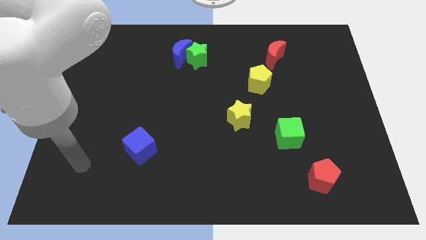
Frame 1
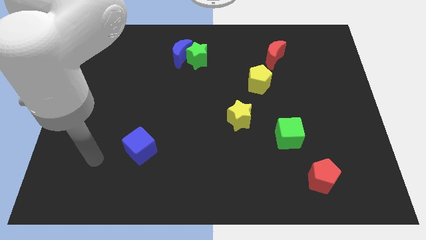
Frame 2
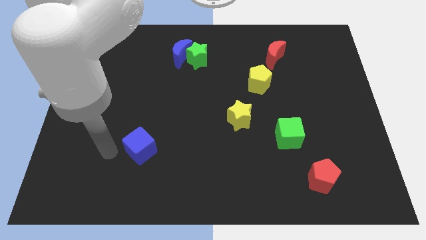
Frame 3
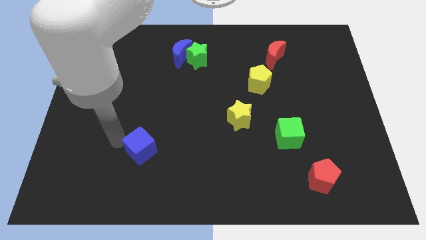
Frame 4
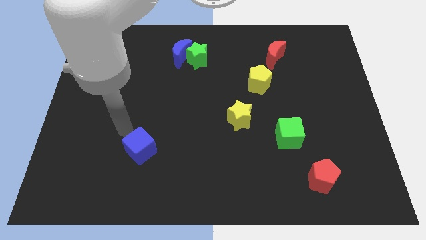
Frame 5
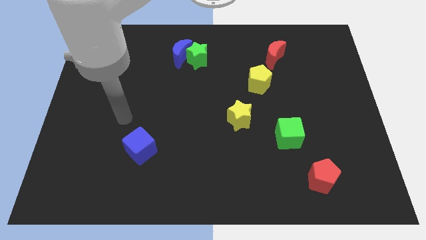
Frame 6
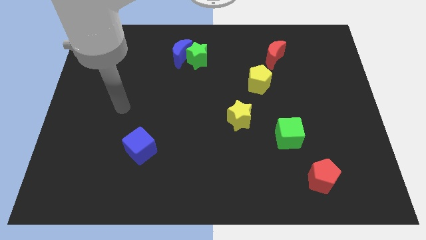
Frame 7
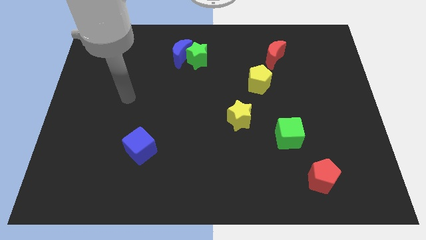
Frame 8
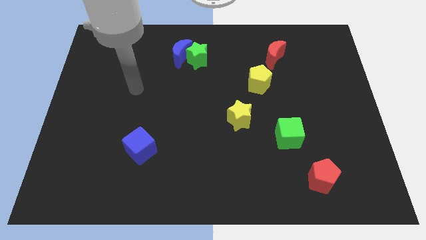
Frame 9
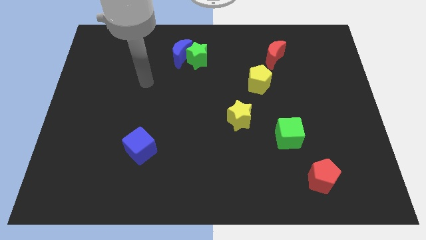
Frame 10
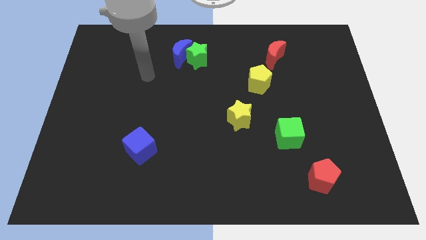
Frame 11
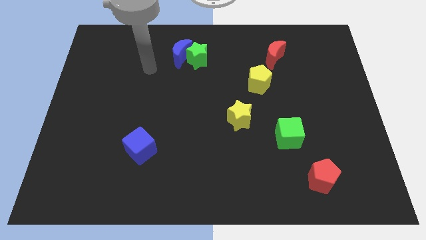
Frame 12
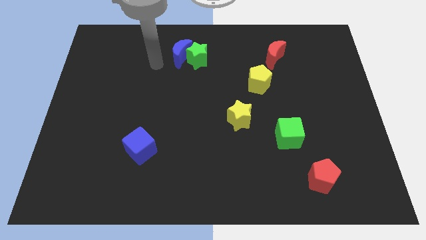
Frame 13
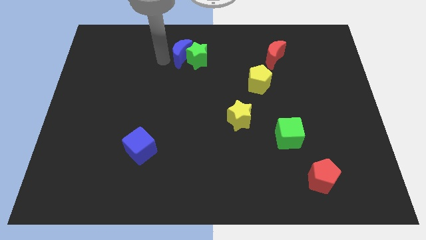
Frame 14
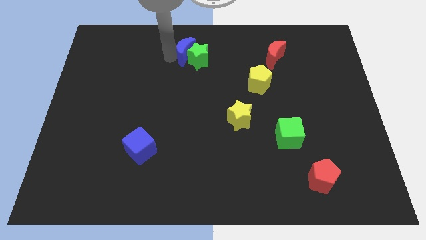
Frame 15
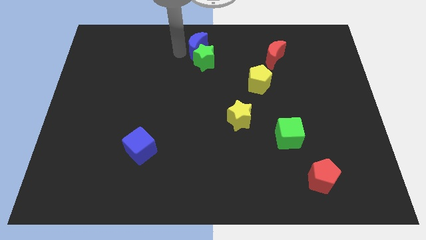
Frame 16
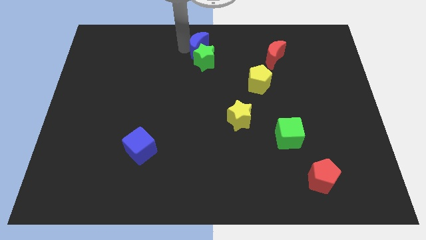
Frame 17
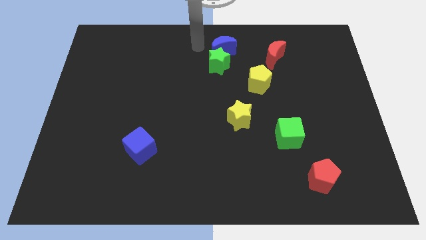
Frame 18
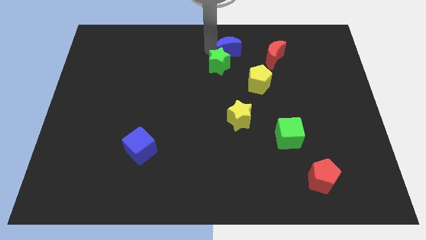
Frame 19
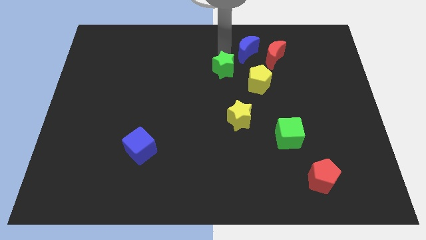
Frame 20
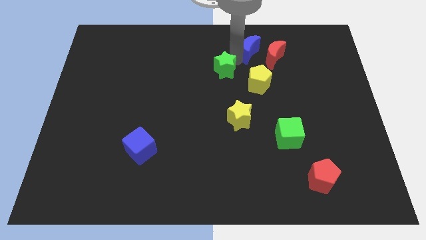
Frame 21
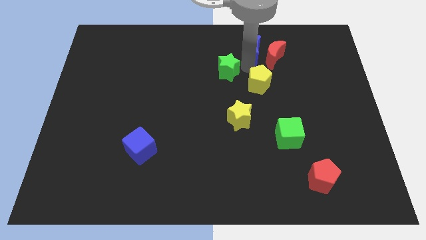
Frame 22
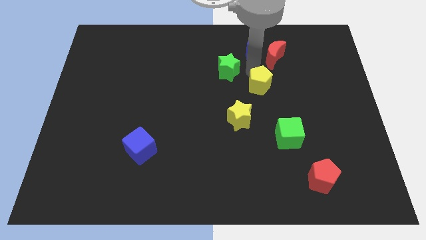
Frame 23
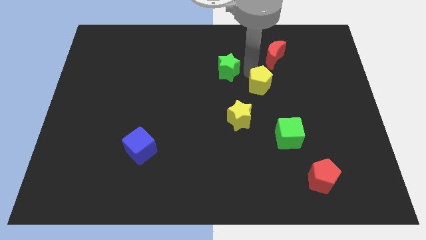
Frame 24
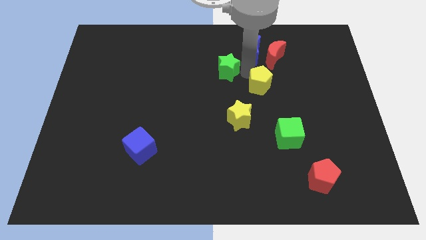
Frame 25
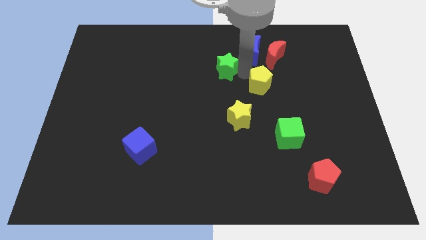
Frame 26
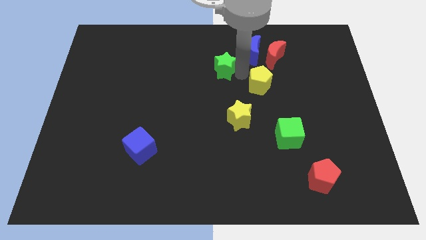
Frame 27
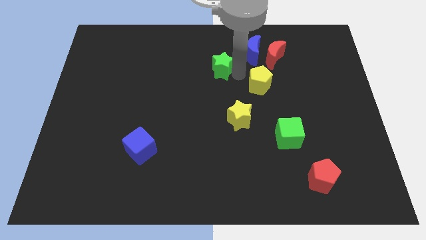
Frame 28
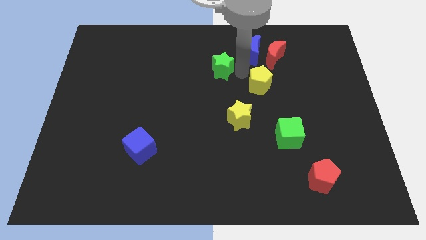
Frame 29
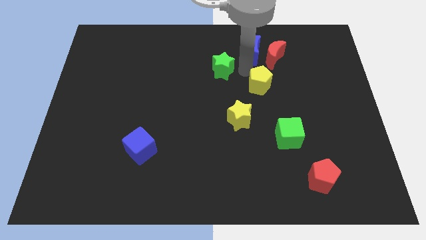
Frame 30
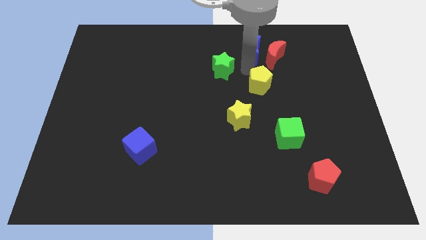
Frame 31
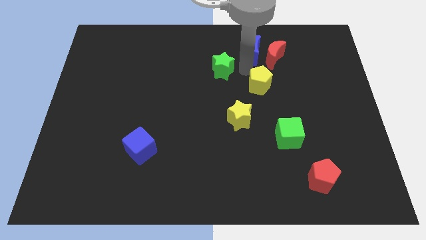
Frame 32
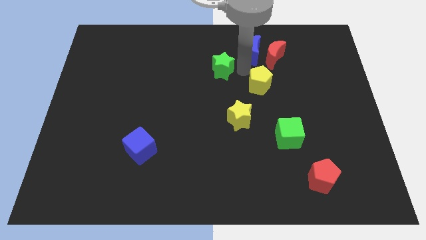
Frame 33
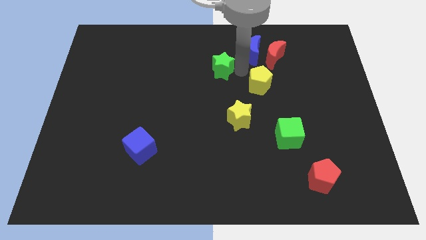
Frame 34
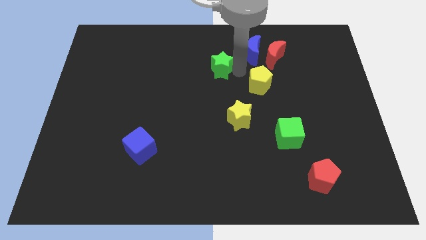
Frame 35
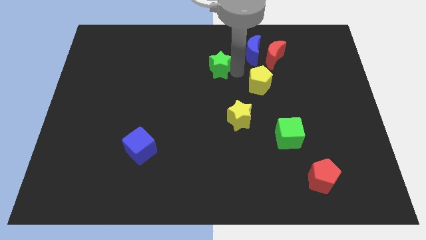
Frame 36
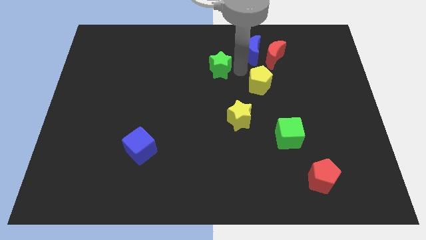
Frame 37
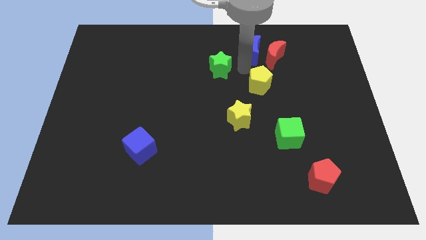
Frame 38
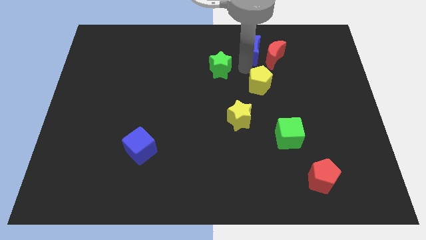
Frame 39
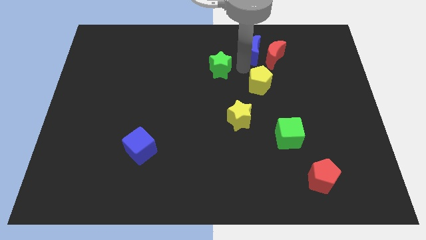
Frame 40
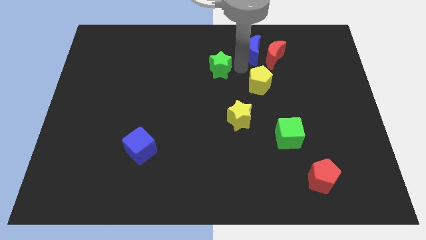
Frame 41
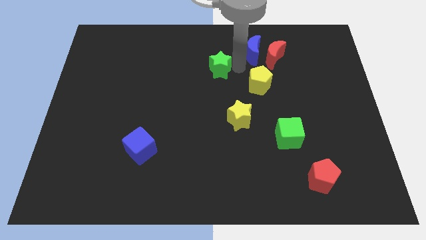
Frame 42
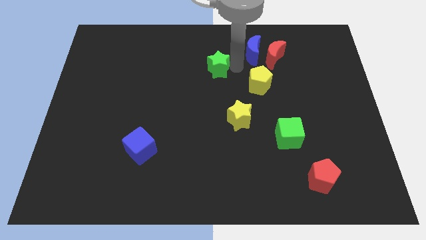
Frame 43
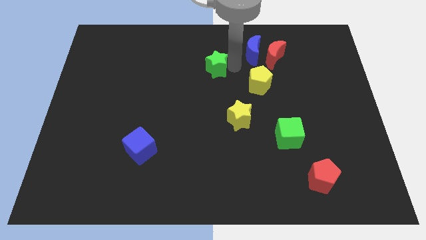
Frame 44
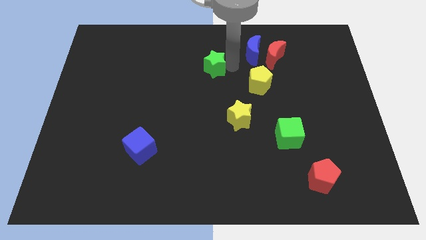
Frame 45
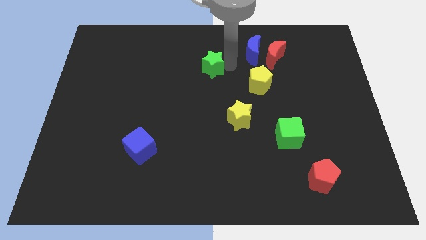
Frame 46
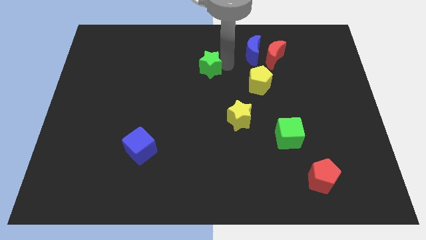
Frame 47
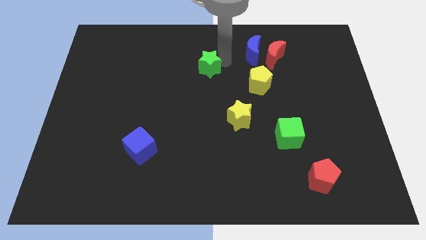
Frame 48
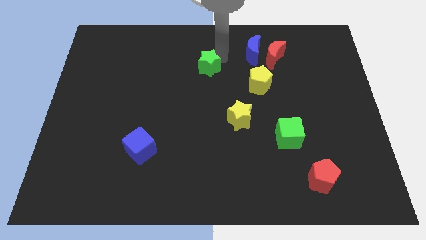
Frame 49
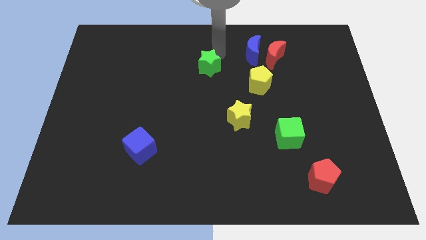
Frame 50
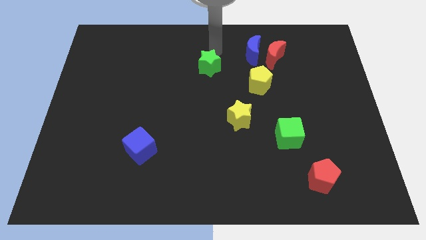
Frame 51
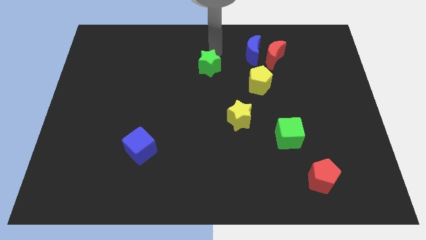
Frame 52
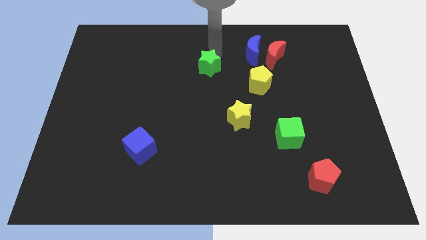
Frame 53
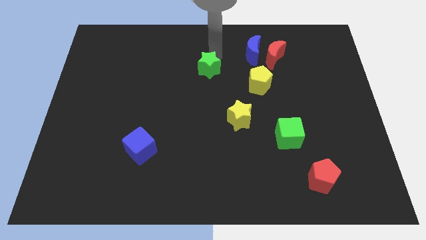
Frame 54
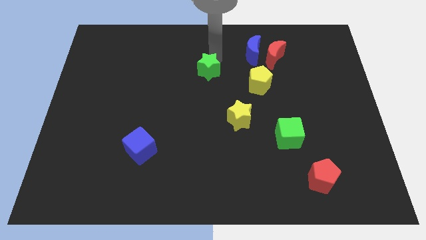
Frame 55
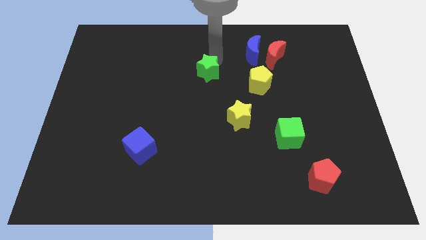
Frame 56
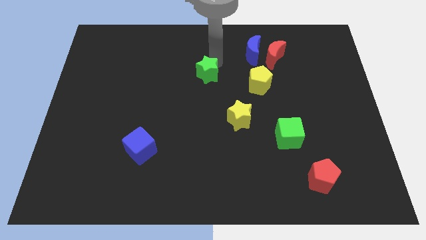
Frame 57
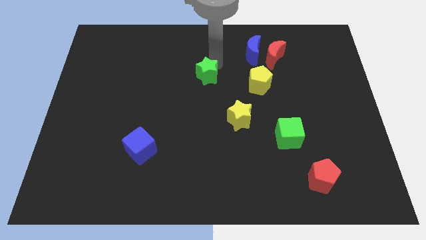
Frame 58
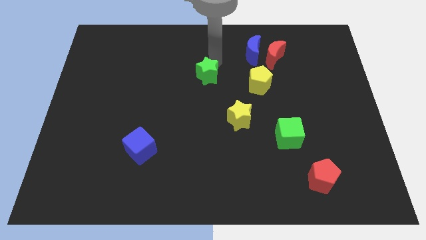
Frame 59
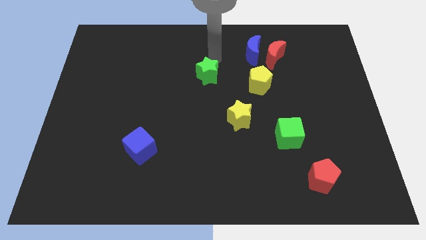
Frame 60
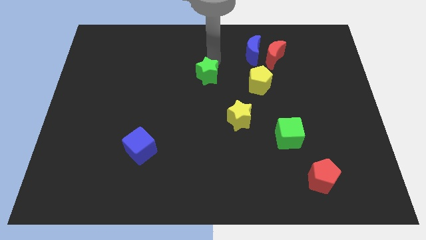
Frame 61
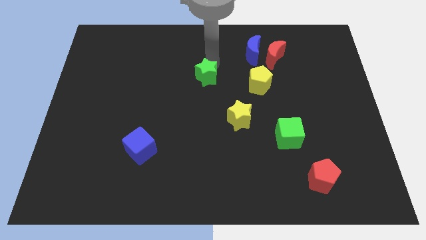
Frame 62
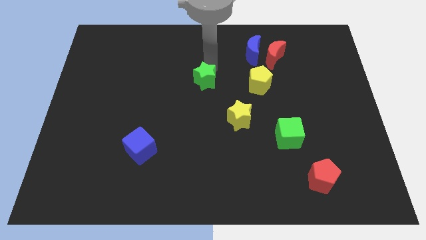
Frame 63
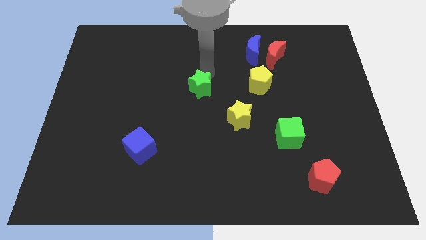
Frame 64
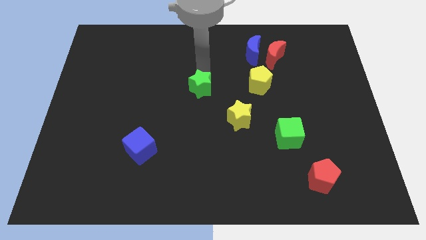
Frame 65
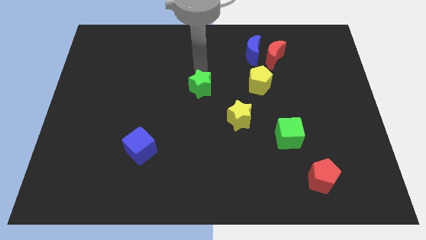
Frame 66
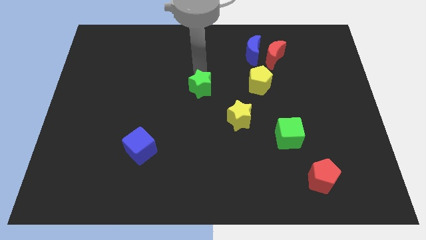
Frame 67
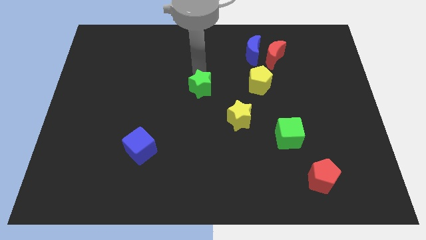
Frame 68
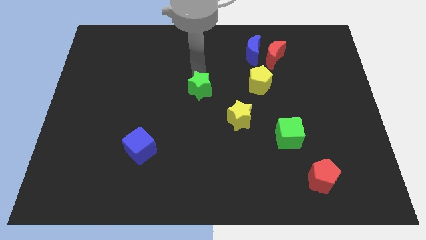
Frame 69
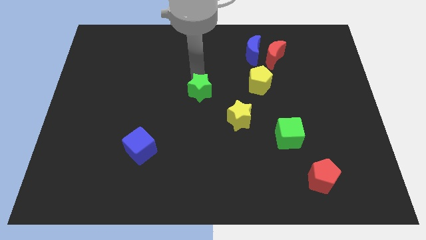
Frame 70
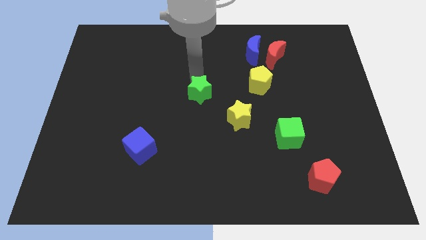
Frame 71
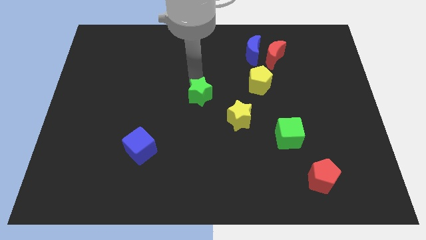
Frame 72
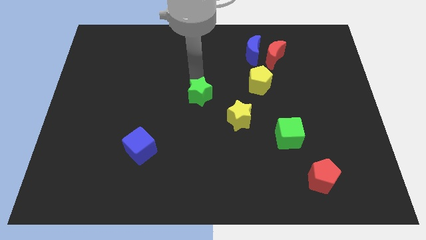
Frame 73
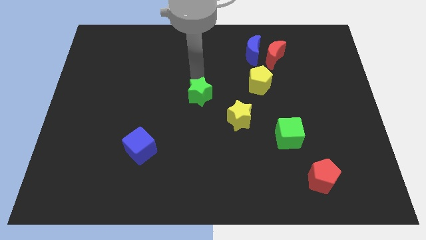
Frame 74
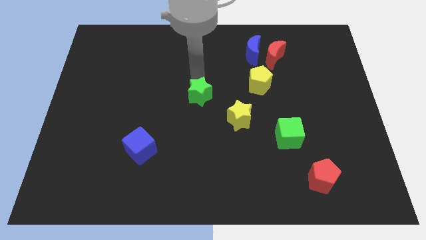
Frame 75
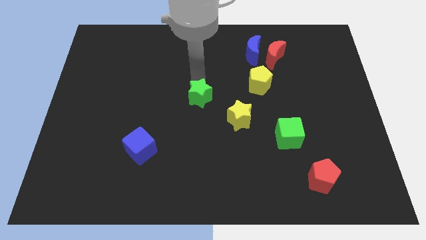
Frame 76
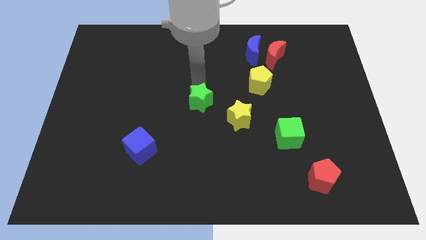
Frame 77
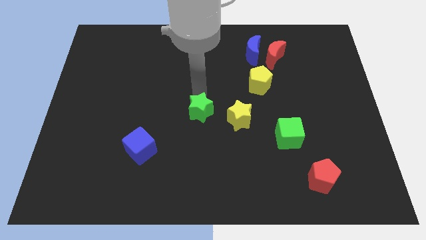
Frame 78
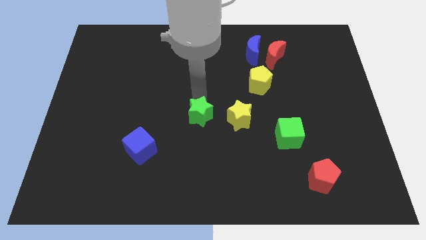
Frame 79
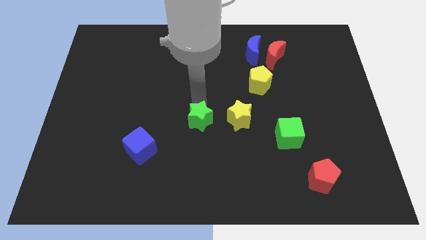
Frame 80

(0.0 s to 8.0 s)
move the green star down
